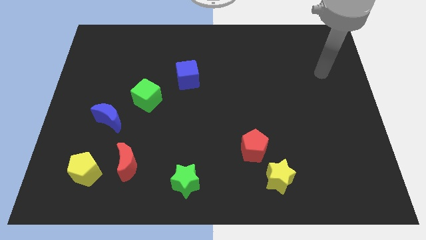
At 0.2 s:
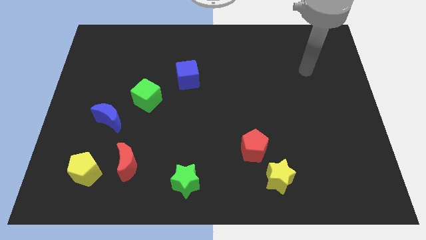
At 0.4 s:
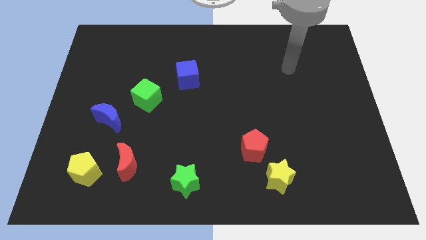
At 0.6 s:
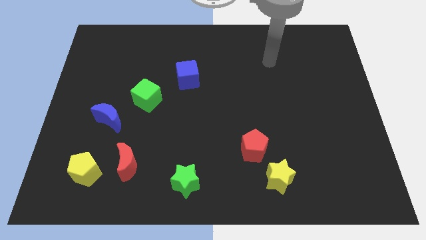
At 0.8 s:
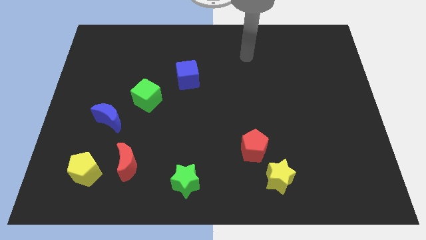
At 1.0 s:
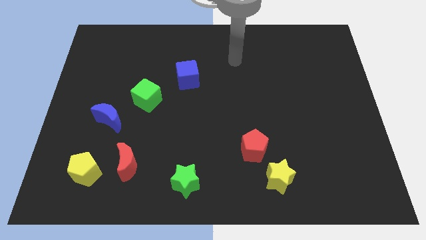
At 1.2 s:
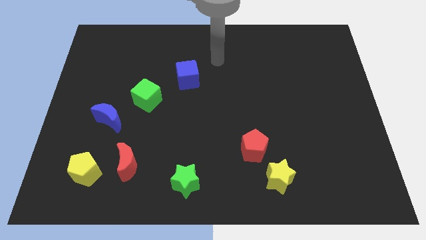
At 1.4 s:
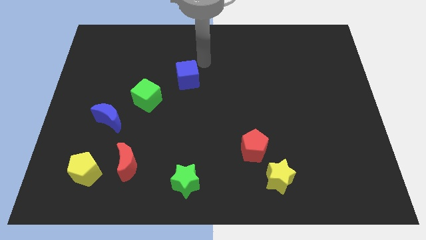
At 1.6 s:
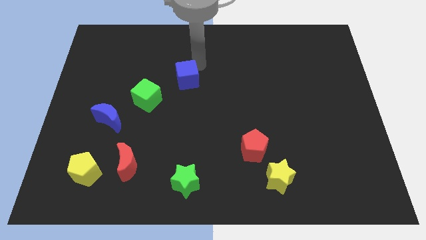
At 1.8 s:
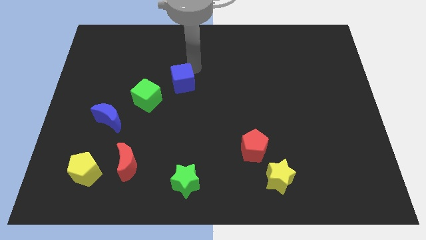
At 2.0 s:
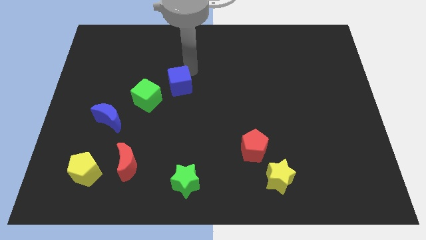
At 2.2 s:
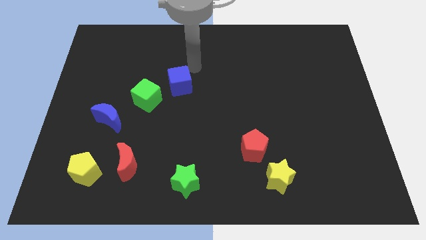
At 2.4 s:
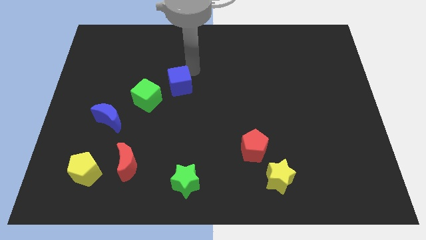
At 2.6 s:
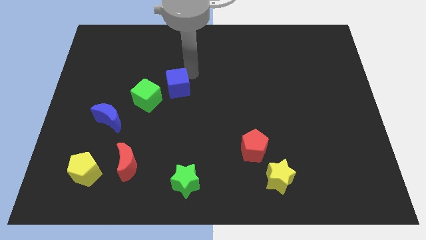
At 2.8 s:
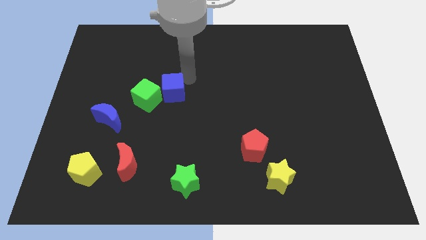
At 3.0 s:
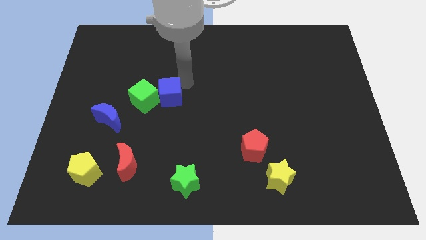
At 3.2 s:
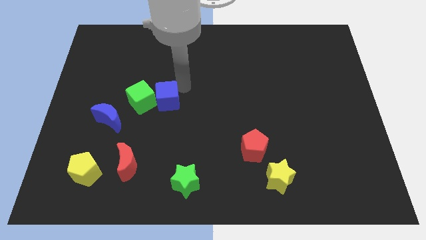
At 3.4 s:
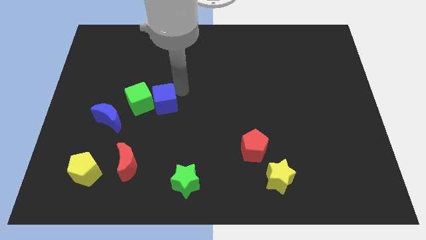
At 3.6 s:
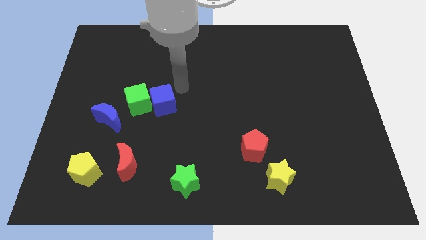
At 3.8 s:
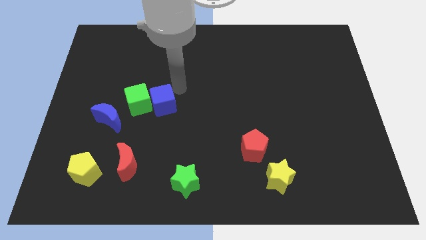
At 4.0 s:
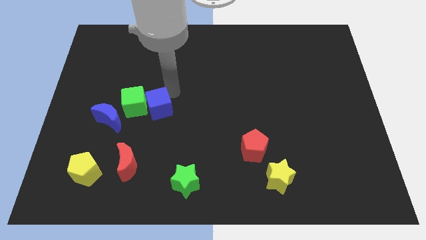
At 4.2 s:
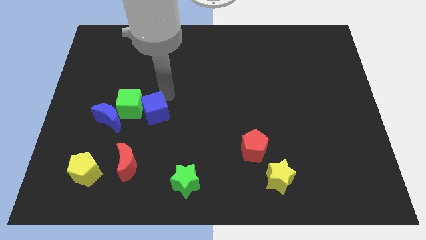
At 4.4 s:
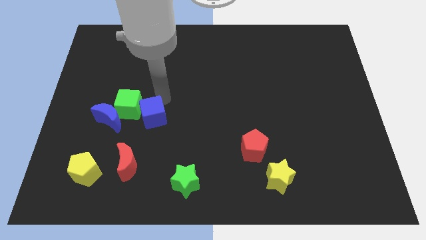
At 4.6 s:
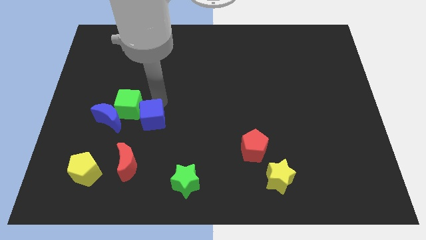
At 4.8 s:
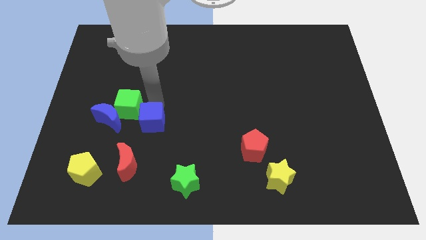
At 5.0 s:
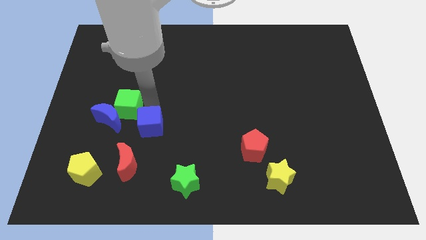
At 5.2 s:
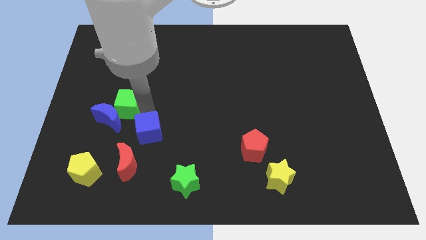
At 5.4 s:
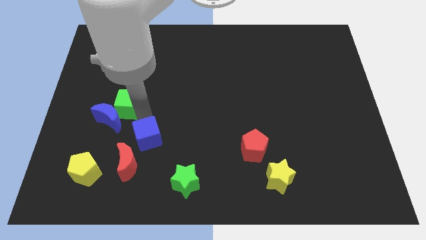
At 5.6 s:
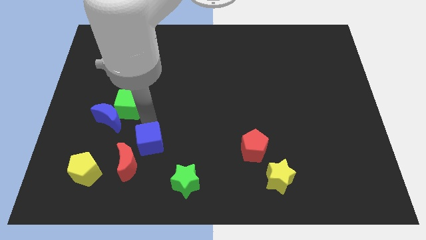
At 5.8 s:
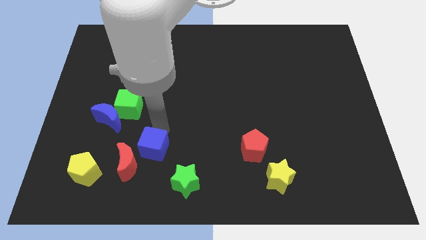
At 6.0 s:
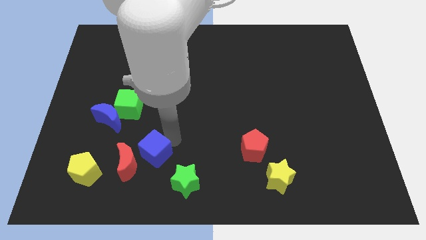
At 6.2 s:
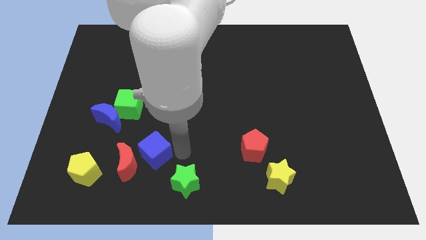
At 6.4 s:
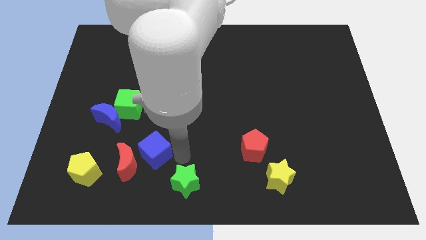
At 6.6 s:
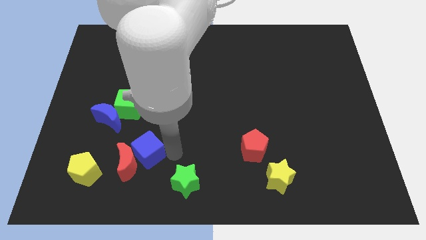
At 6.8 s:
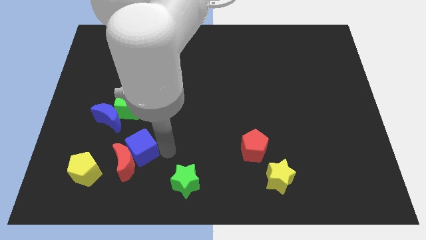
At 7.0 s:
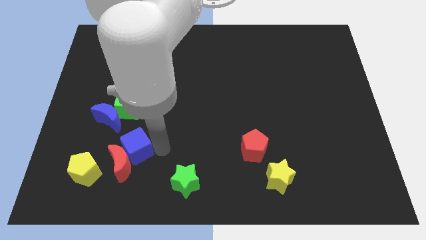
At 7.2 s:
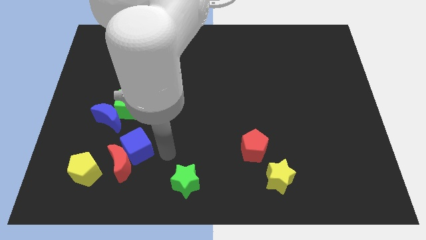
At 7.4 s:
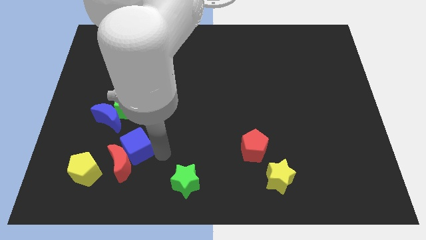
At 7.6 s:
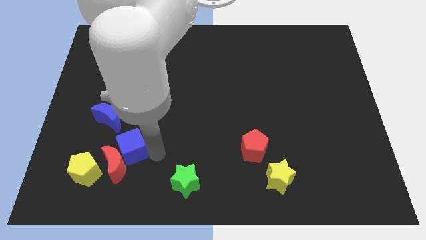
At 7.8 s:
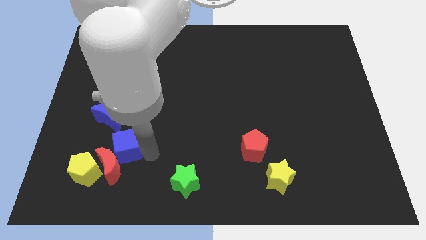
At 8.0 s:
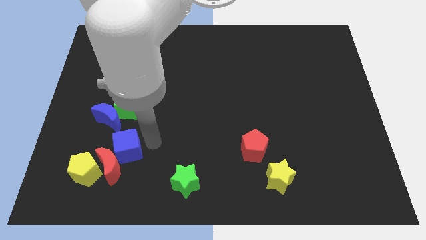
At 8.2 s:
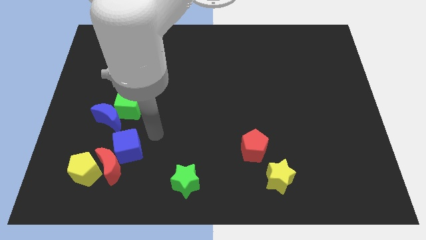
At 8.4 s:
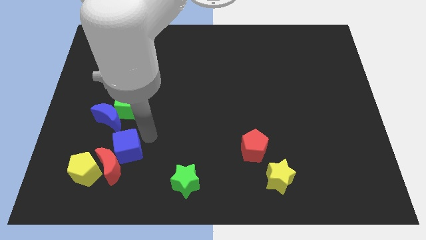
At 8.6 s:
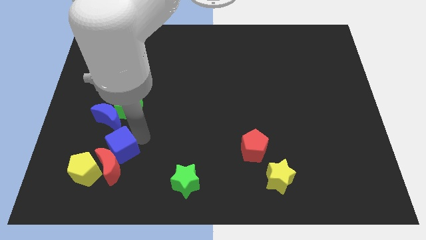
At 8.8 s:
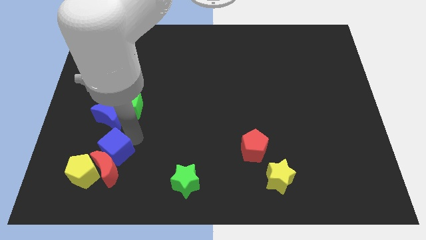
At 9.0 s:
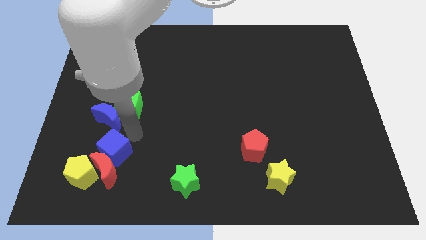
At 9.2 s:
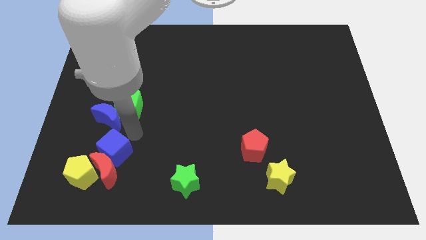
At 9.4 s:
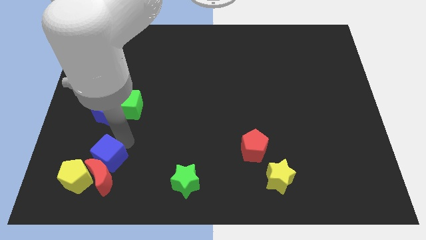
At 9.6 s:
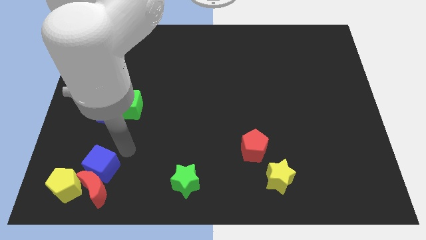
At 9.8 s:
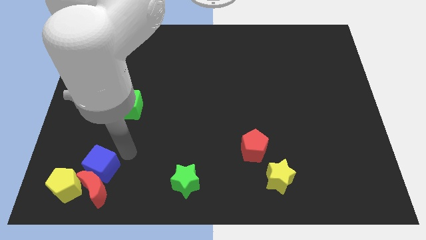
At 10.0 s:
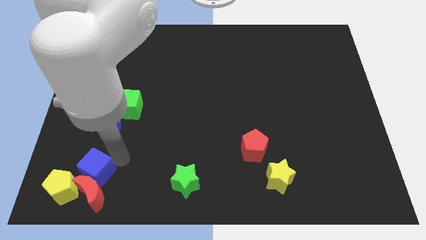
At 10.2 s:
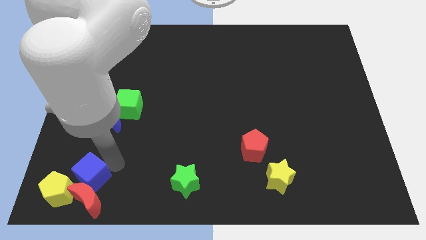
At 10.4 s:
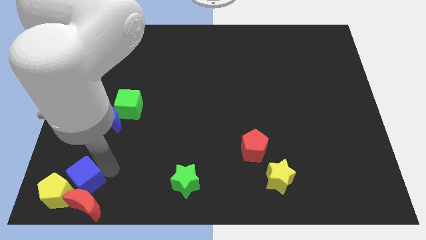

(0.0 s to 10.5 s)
move the blue cube towards the yellow pentagon

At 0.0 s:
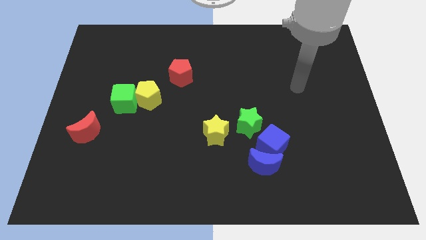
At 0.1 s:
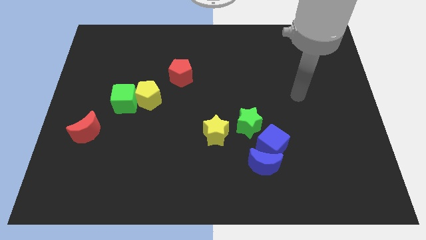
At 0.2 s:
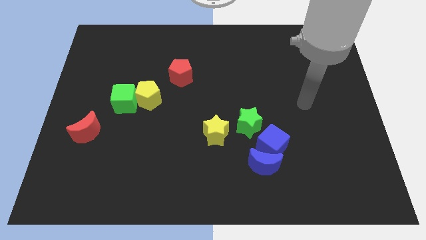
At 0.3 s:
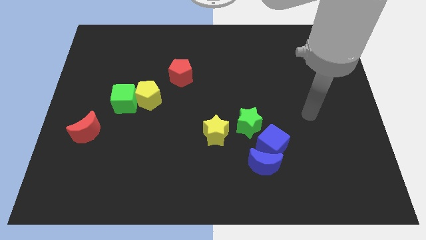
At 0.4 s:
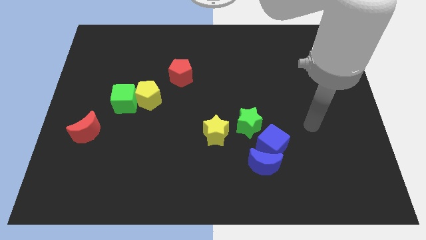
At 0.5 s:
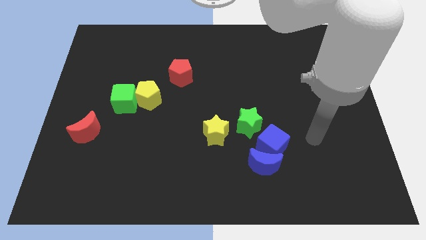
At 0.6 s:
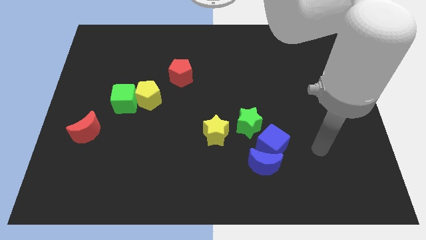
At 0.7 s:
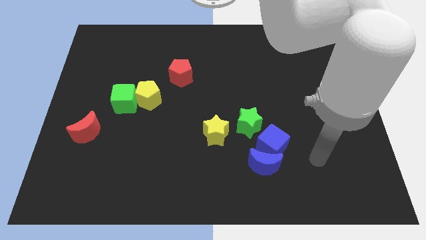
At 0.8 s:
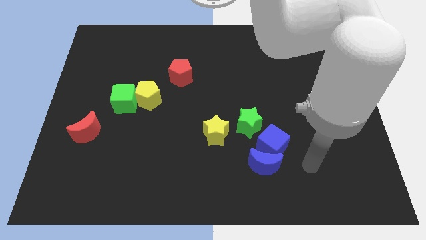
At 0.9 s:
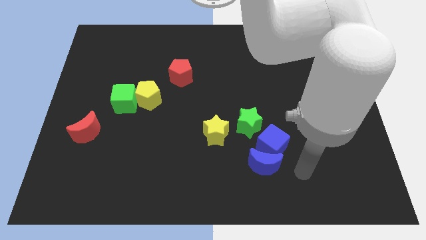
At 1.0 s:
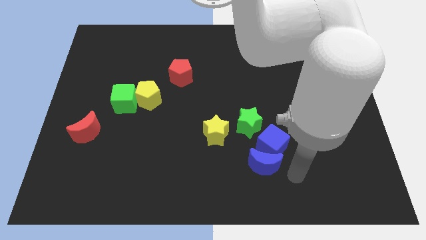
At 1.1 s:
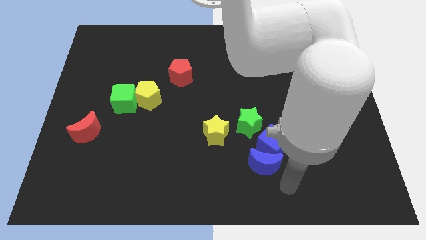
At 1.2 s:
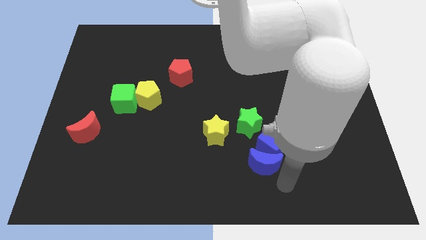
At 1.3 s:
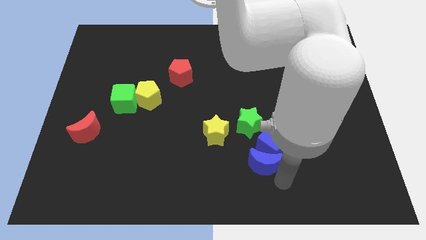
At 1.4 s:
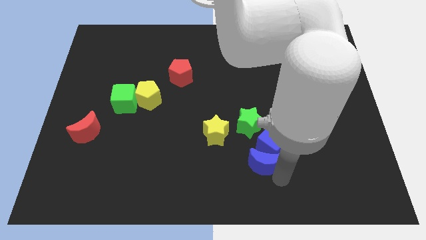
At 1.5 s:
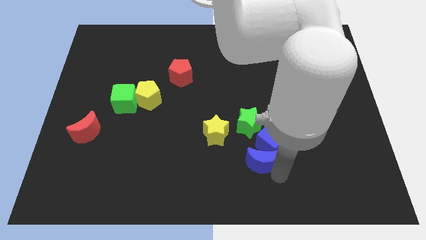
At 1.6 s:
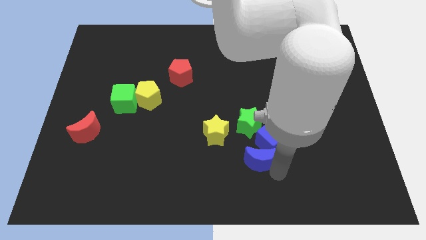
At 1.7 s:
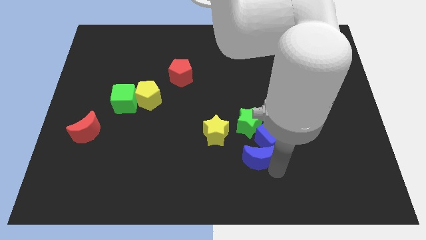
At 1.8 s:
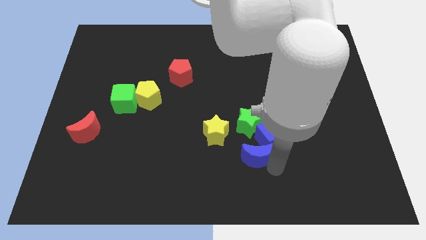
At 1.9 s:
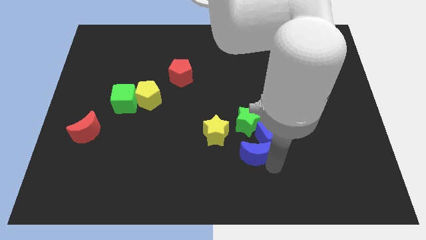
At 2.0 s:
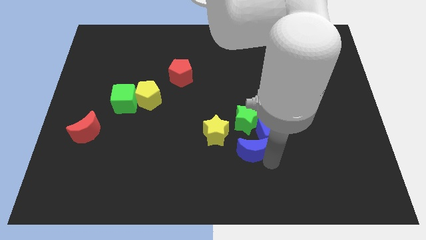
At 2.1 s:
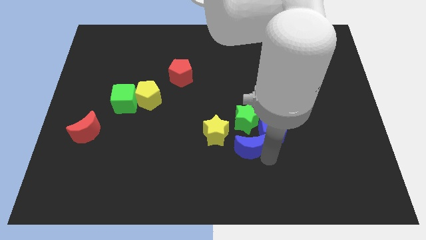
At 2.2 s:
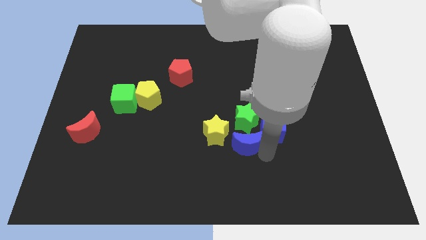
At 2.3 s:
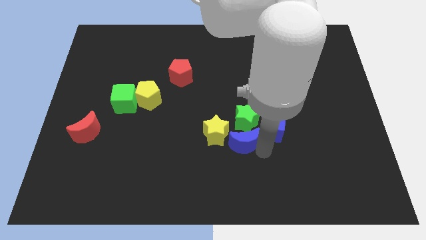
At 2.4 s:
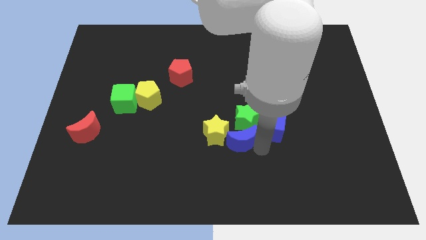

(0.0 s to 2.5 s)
put the blue moon to the yellow star
